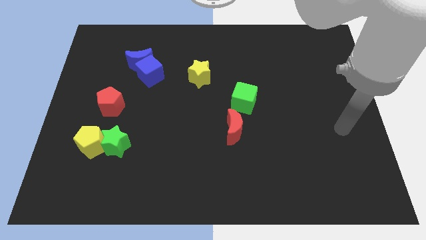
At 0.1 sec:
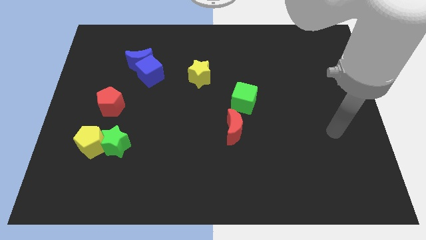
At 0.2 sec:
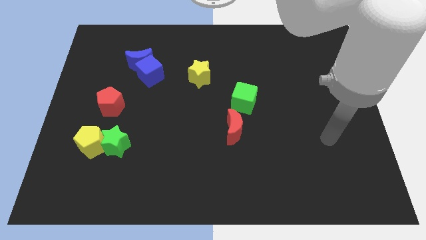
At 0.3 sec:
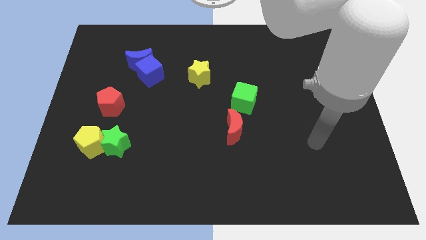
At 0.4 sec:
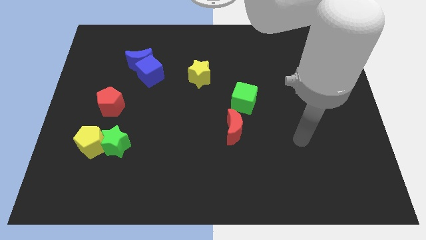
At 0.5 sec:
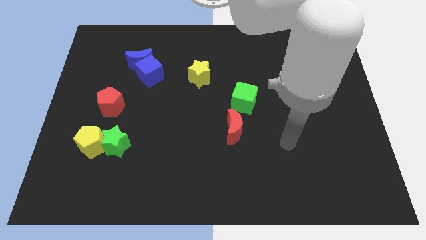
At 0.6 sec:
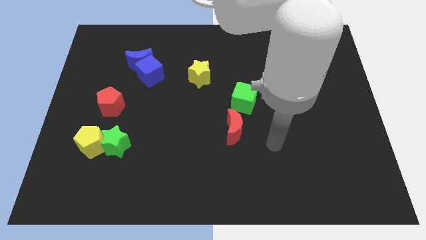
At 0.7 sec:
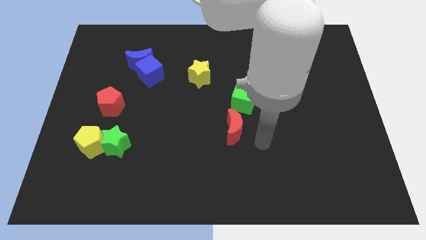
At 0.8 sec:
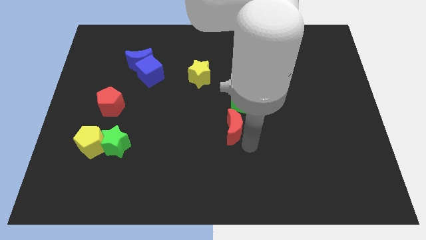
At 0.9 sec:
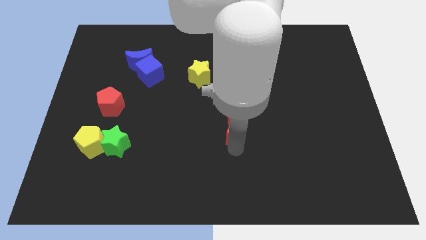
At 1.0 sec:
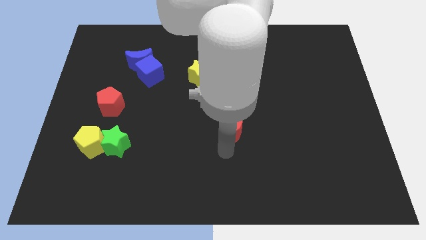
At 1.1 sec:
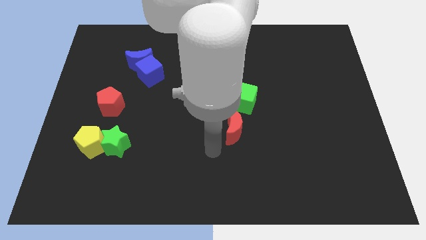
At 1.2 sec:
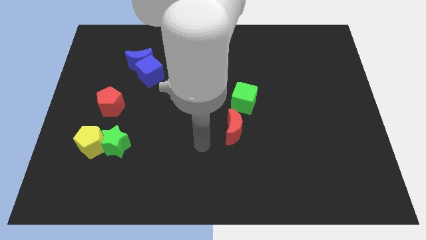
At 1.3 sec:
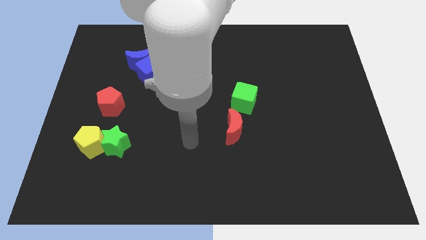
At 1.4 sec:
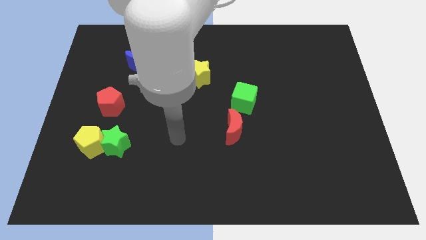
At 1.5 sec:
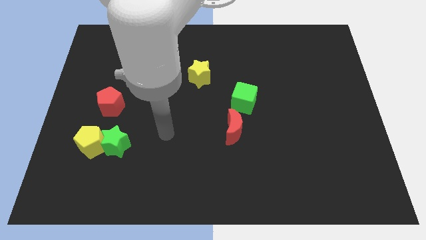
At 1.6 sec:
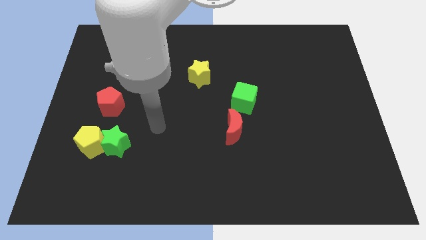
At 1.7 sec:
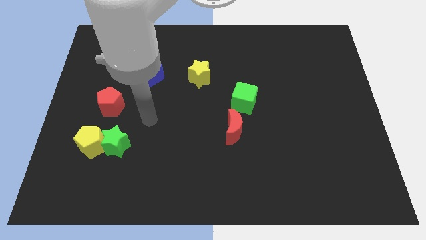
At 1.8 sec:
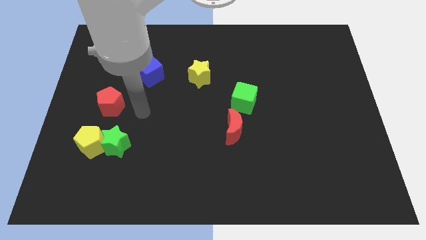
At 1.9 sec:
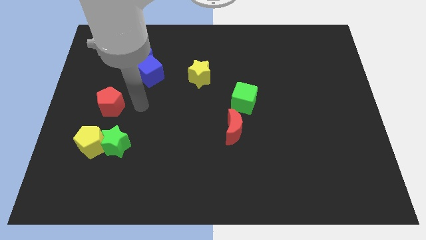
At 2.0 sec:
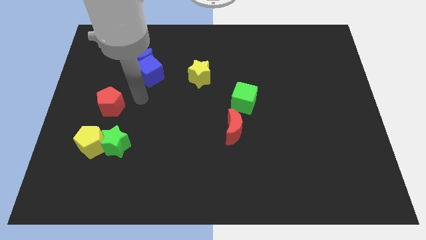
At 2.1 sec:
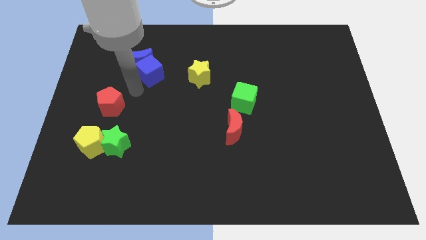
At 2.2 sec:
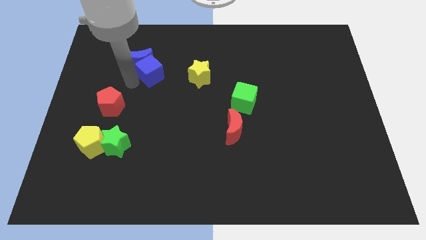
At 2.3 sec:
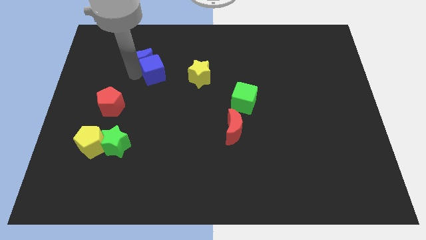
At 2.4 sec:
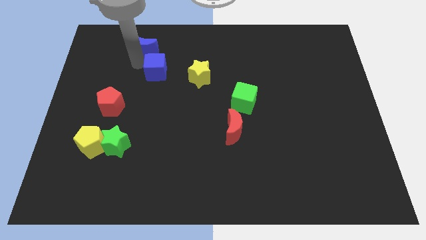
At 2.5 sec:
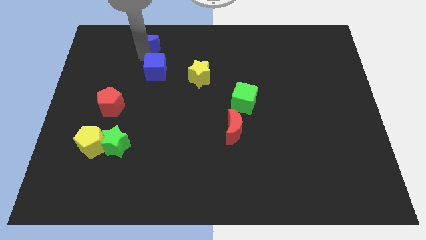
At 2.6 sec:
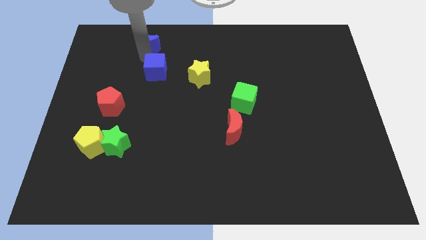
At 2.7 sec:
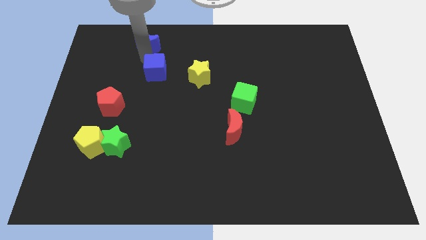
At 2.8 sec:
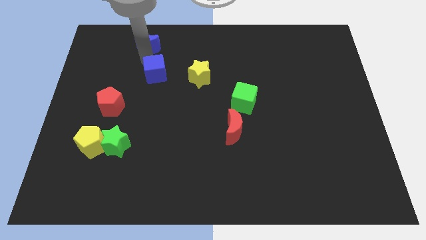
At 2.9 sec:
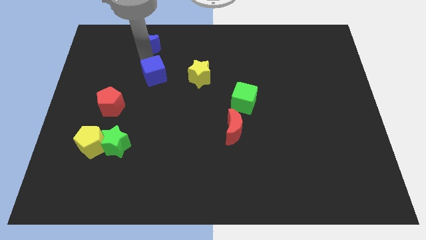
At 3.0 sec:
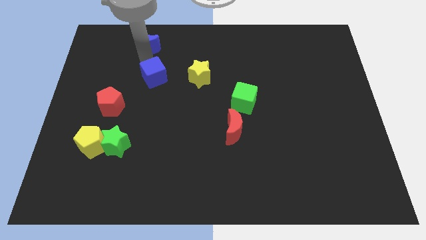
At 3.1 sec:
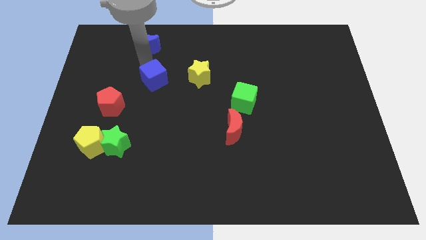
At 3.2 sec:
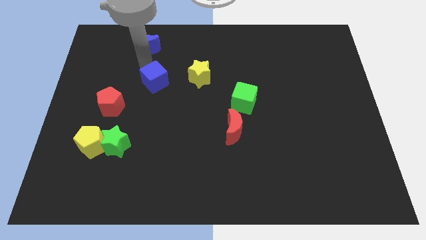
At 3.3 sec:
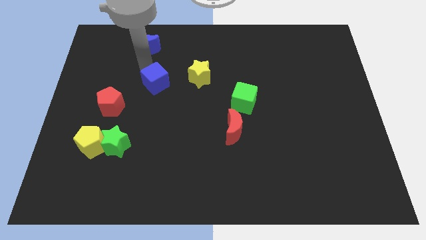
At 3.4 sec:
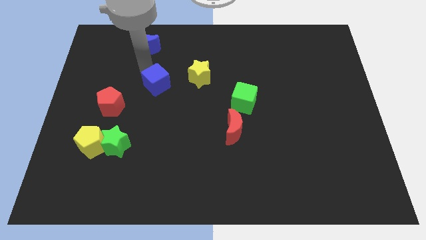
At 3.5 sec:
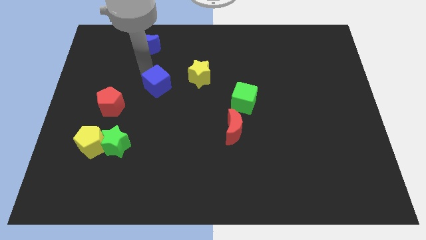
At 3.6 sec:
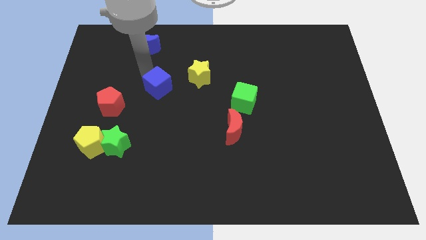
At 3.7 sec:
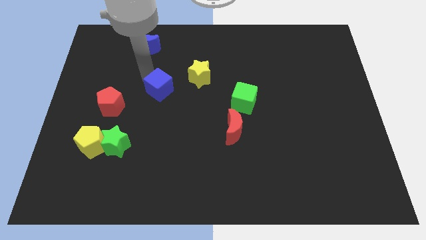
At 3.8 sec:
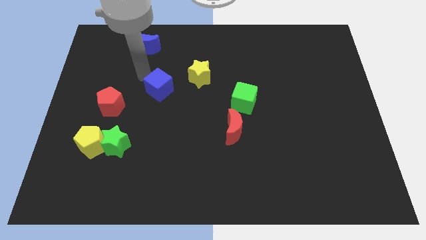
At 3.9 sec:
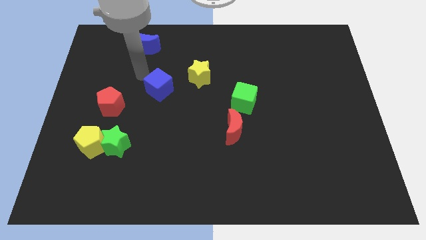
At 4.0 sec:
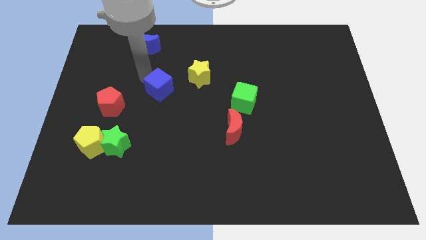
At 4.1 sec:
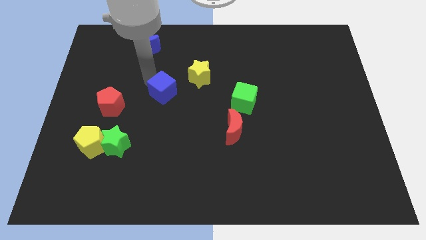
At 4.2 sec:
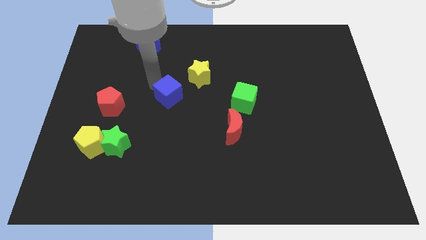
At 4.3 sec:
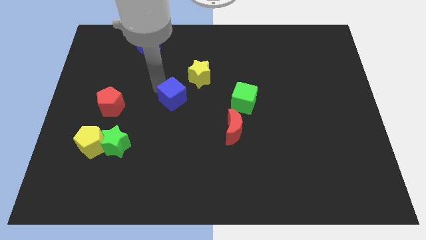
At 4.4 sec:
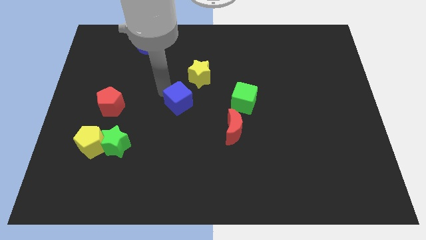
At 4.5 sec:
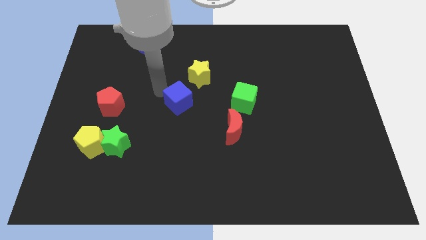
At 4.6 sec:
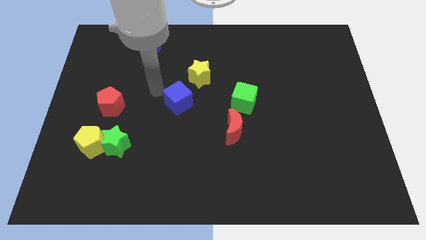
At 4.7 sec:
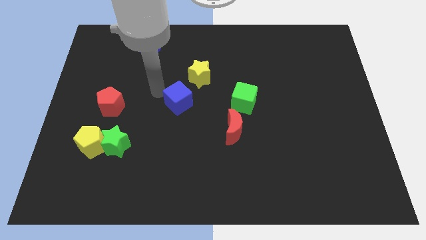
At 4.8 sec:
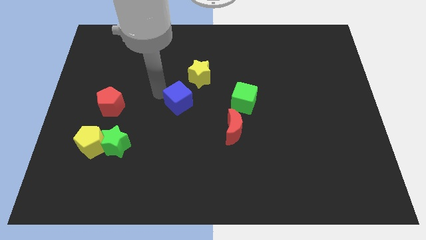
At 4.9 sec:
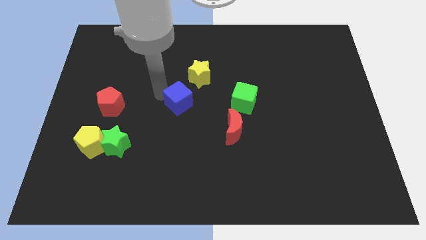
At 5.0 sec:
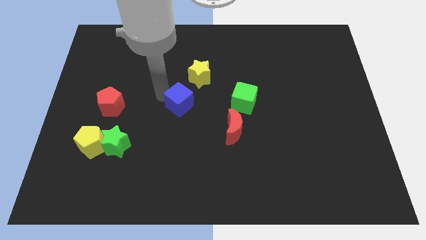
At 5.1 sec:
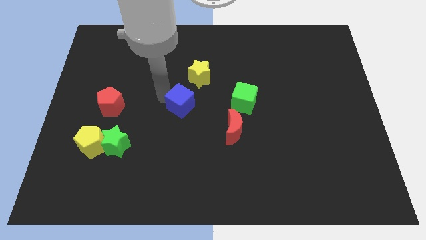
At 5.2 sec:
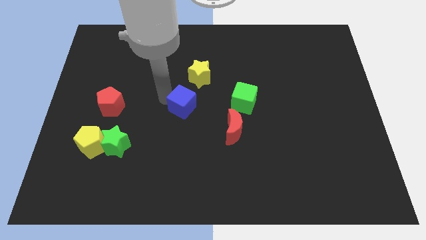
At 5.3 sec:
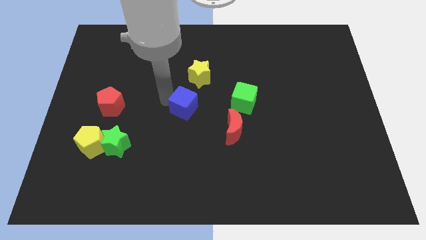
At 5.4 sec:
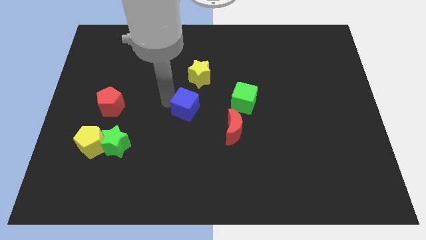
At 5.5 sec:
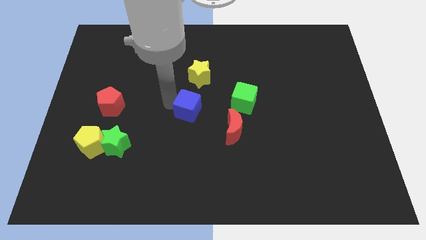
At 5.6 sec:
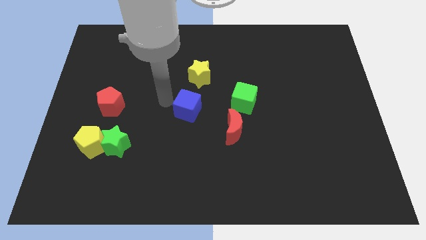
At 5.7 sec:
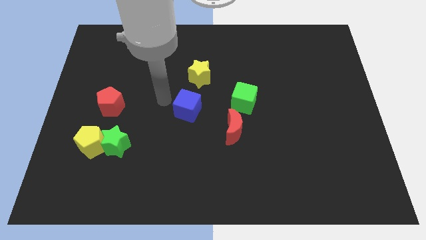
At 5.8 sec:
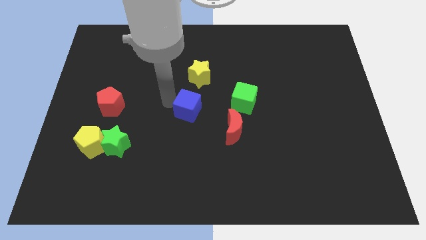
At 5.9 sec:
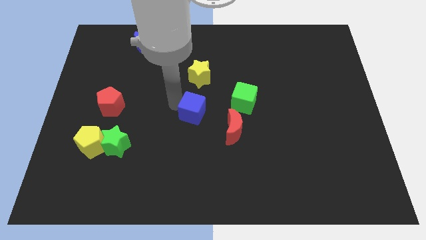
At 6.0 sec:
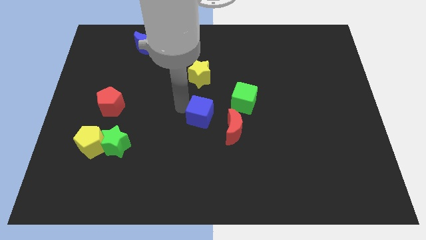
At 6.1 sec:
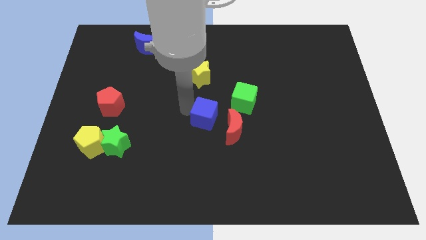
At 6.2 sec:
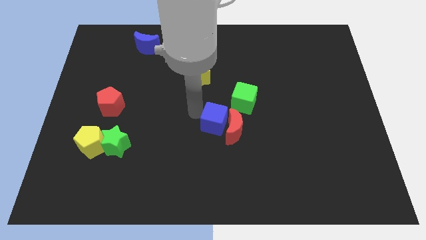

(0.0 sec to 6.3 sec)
put the blue cube next to the red moon

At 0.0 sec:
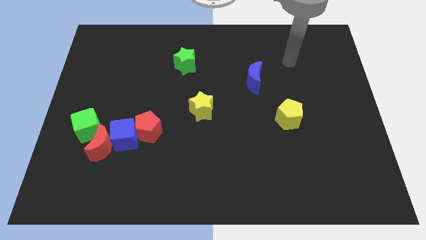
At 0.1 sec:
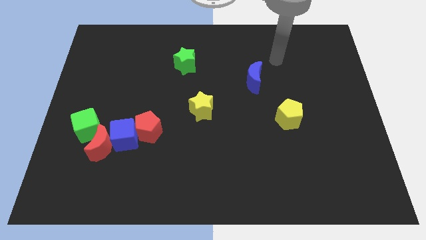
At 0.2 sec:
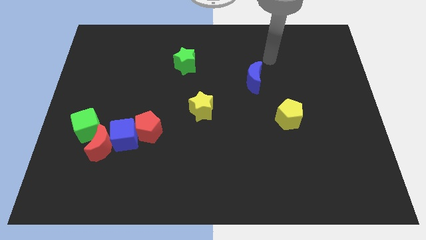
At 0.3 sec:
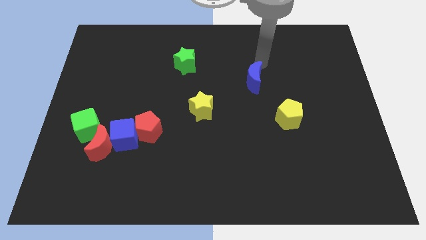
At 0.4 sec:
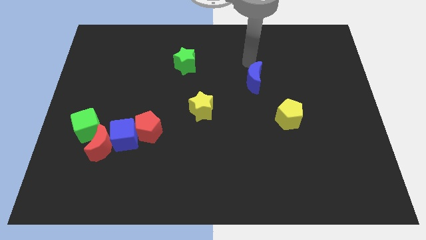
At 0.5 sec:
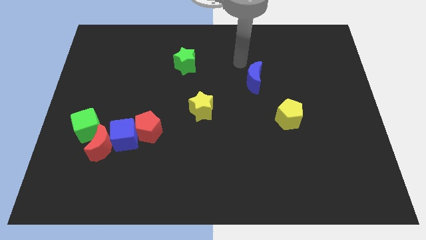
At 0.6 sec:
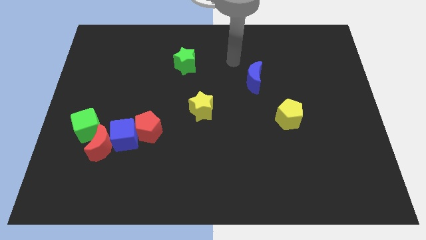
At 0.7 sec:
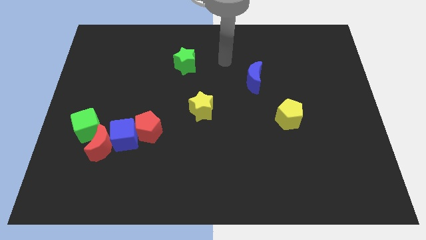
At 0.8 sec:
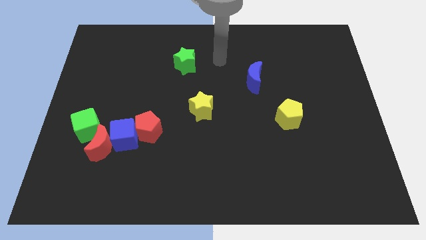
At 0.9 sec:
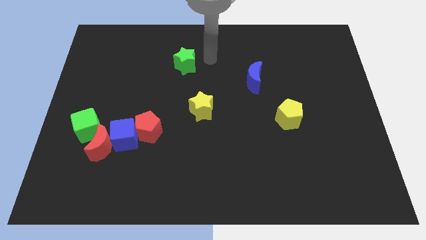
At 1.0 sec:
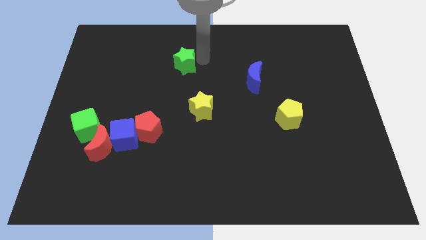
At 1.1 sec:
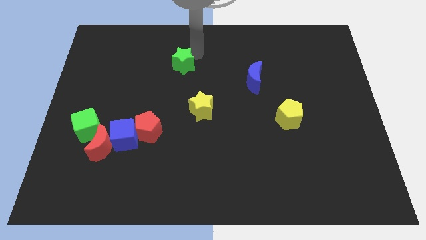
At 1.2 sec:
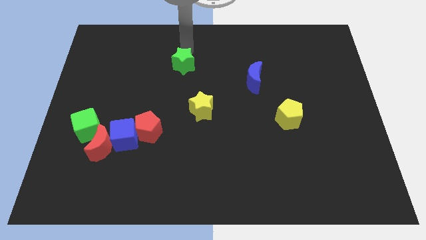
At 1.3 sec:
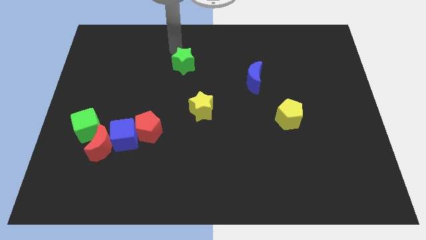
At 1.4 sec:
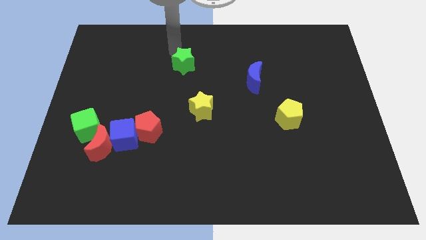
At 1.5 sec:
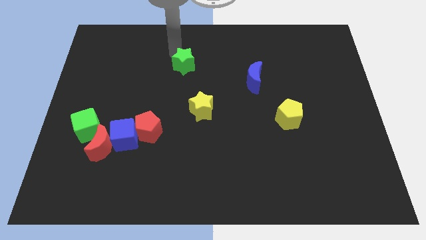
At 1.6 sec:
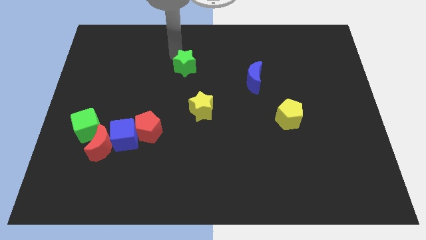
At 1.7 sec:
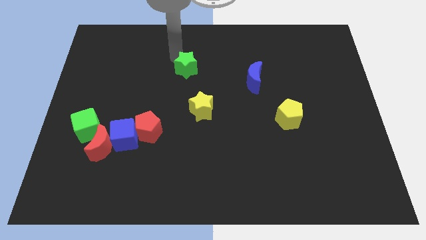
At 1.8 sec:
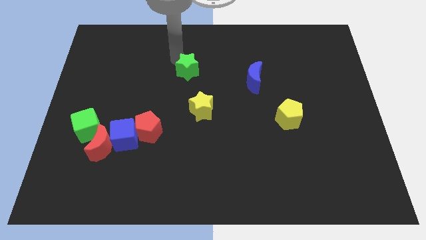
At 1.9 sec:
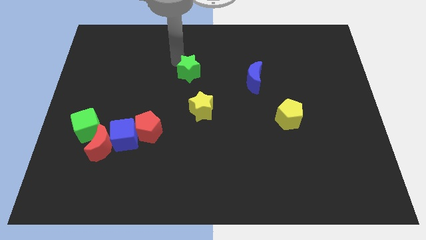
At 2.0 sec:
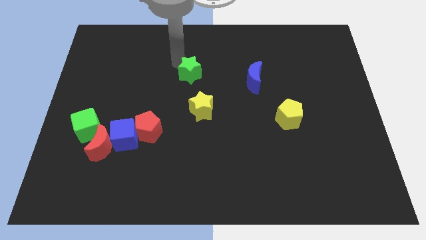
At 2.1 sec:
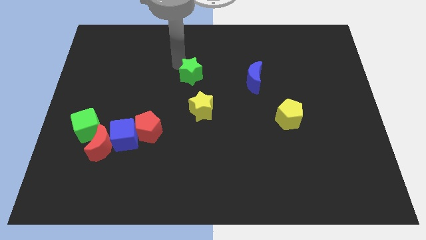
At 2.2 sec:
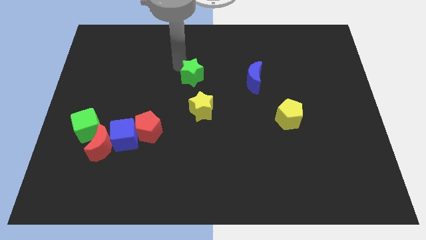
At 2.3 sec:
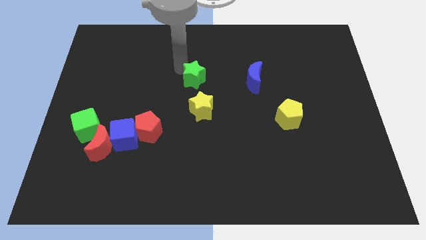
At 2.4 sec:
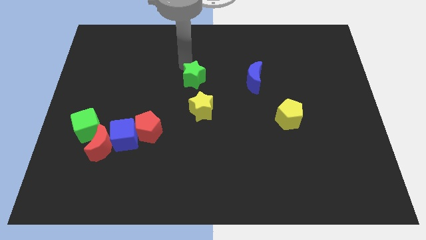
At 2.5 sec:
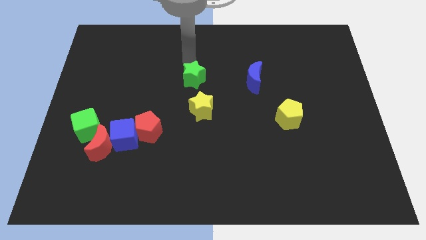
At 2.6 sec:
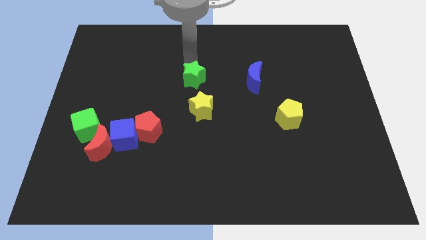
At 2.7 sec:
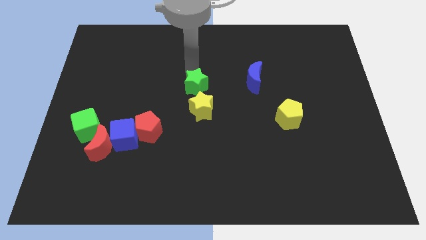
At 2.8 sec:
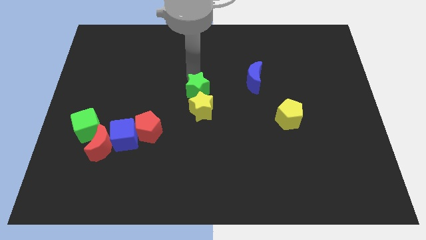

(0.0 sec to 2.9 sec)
move the green star towards the yellow star
